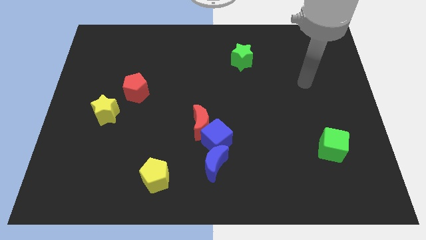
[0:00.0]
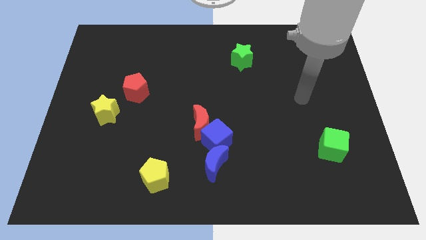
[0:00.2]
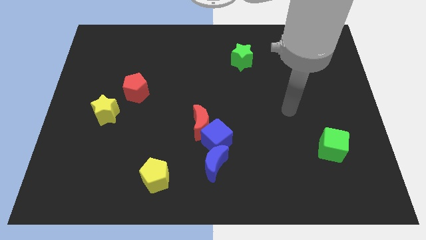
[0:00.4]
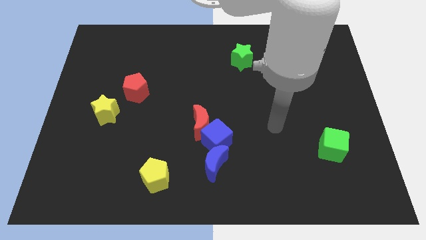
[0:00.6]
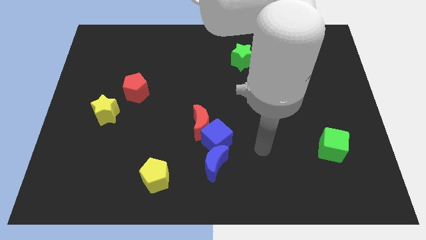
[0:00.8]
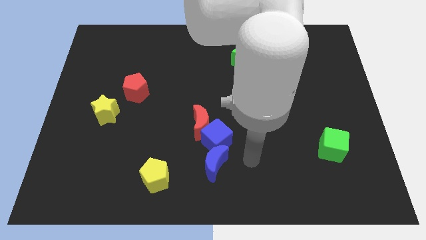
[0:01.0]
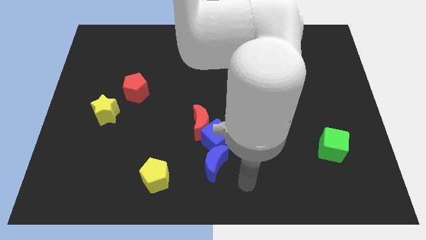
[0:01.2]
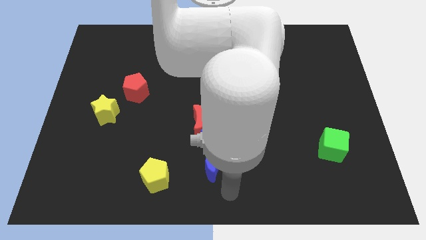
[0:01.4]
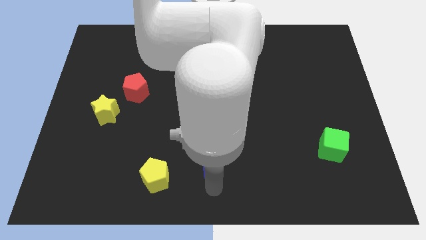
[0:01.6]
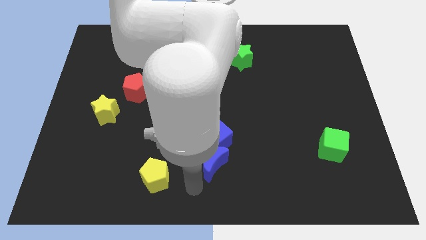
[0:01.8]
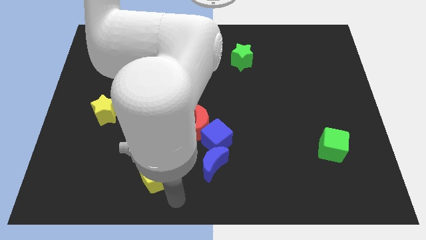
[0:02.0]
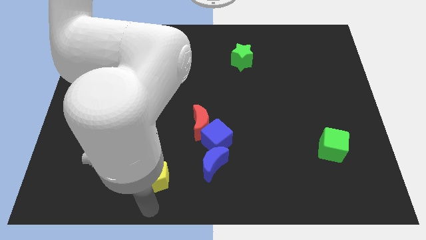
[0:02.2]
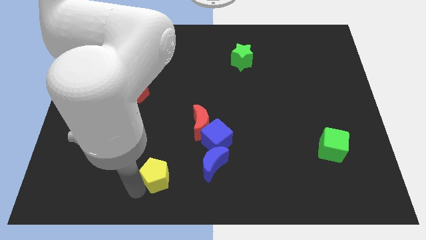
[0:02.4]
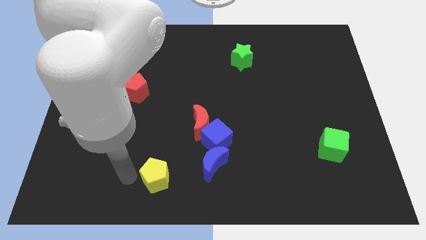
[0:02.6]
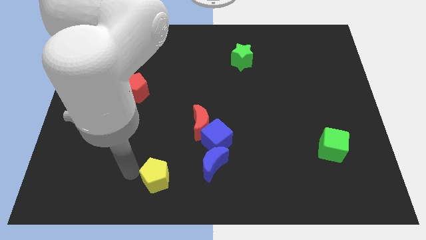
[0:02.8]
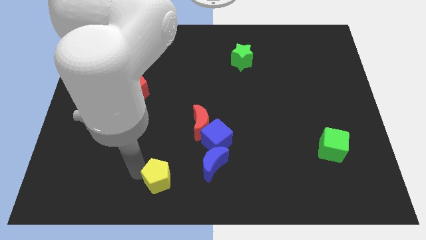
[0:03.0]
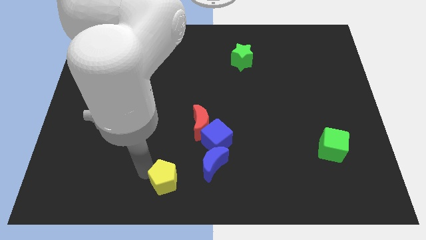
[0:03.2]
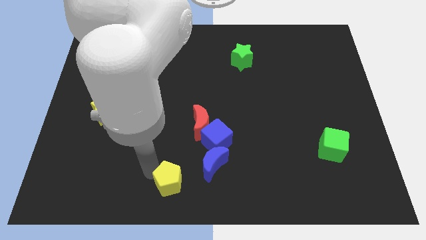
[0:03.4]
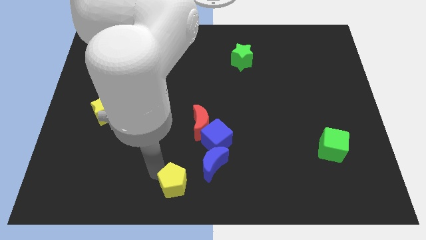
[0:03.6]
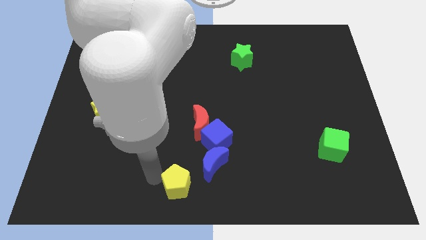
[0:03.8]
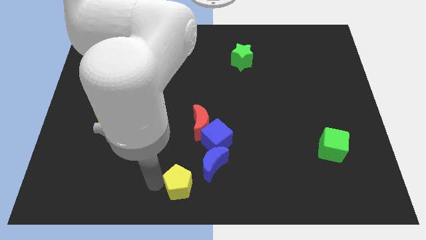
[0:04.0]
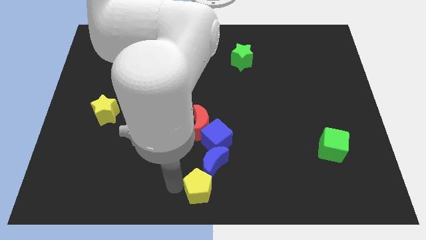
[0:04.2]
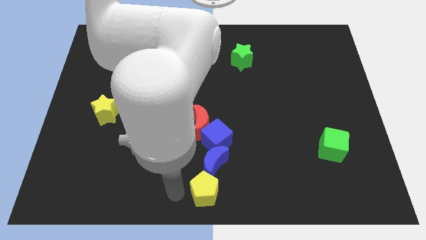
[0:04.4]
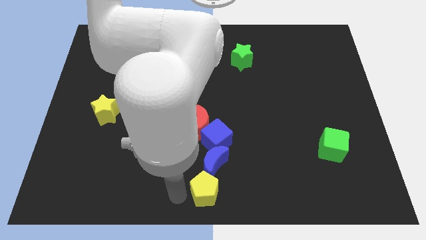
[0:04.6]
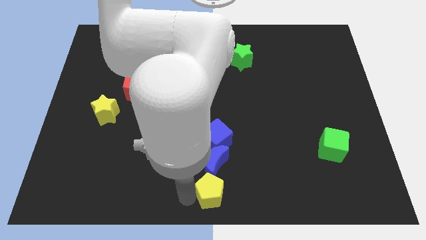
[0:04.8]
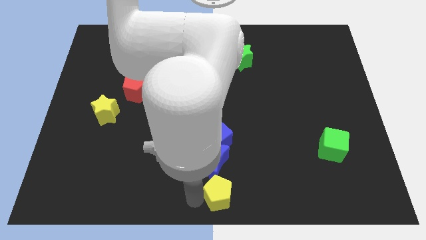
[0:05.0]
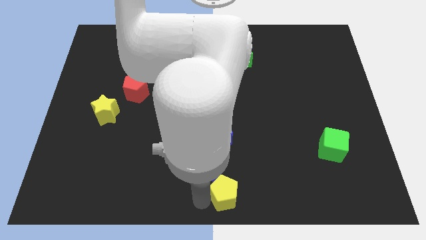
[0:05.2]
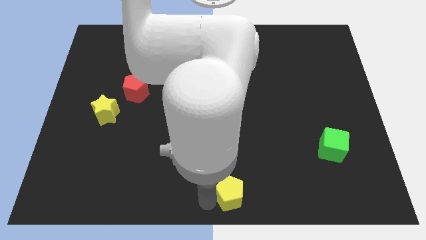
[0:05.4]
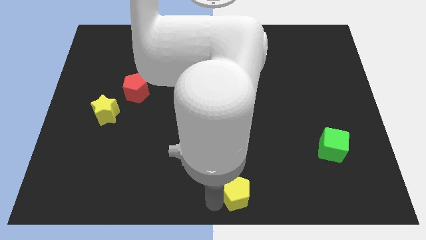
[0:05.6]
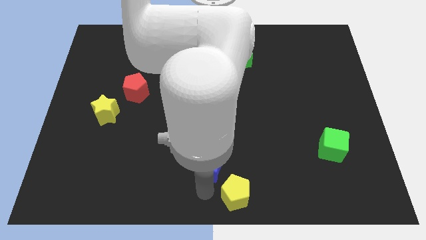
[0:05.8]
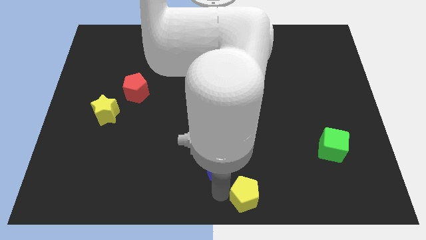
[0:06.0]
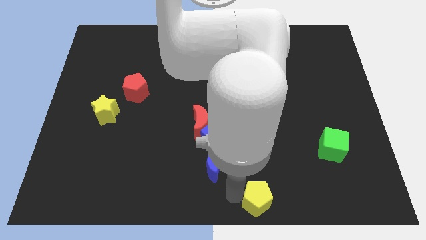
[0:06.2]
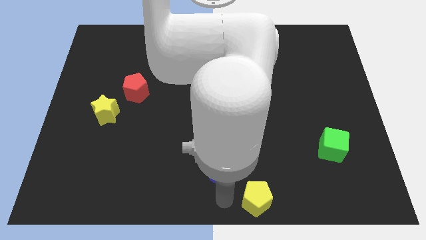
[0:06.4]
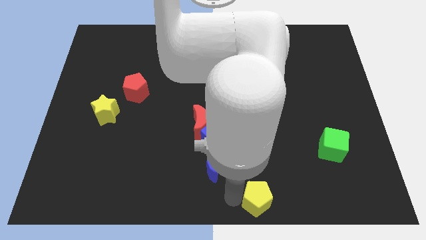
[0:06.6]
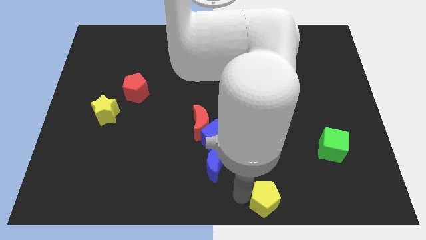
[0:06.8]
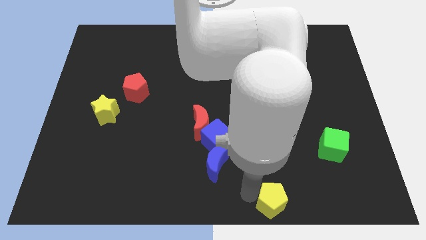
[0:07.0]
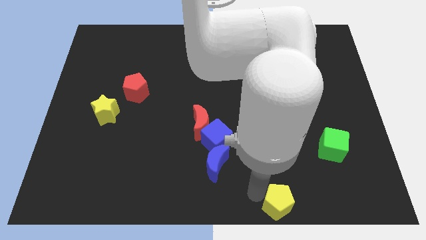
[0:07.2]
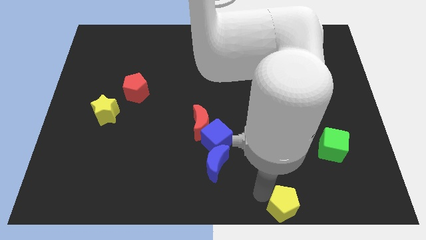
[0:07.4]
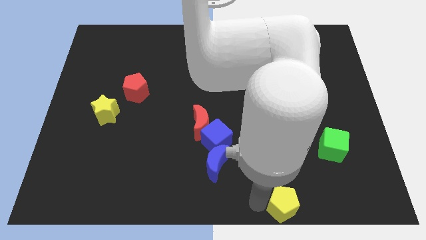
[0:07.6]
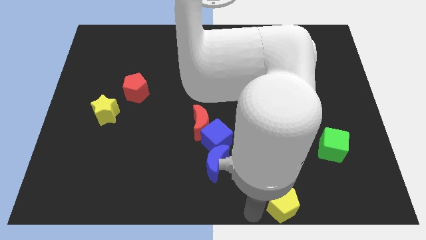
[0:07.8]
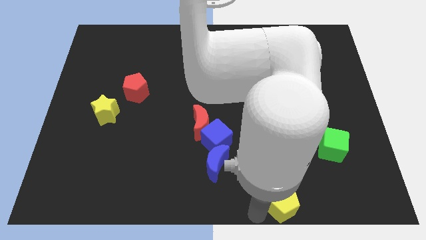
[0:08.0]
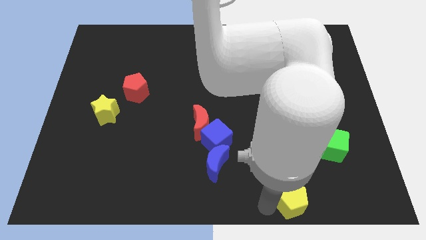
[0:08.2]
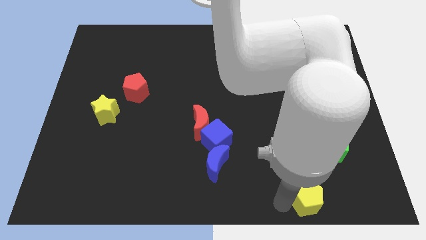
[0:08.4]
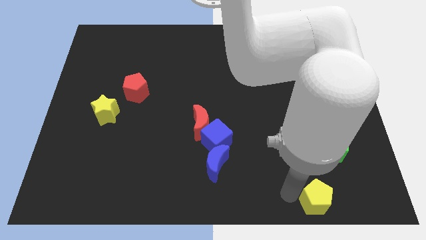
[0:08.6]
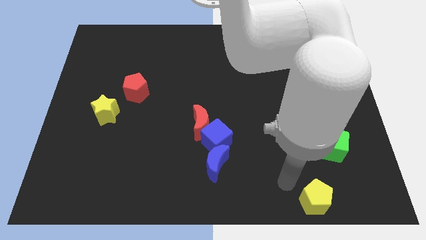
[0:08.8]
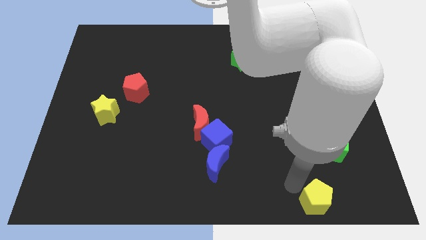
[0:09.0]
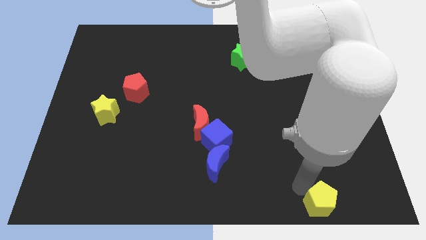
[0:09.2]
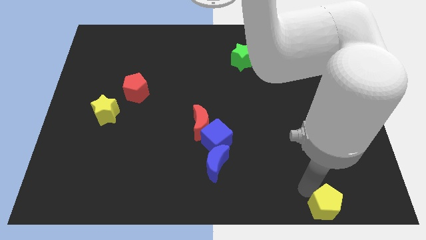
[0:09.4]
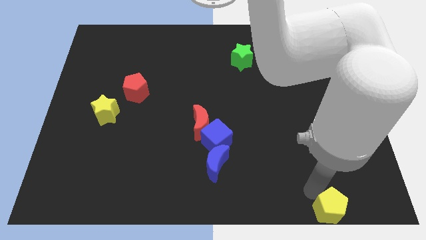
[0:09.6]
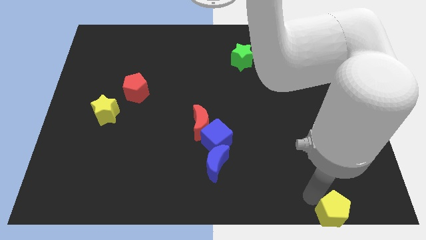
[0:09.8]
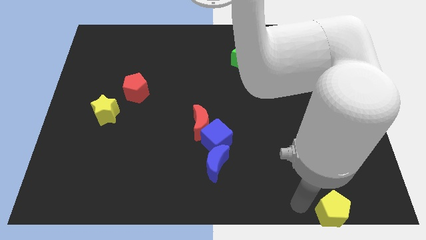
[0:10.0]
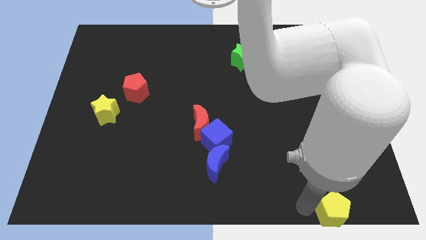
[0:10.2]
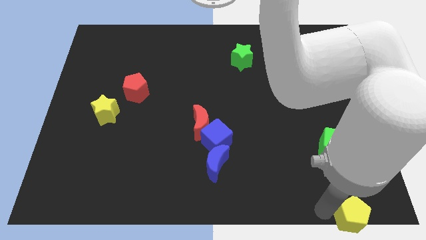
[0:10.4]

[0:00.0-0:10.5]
move the yellow pentagon to the bottom right corner

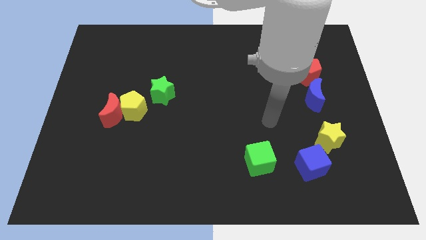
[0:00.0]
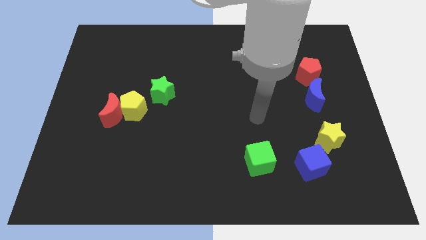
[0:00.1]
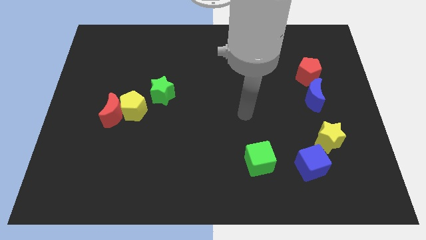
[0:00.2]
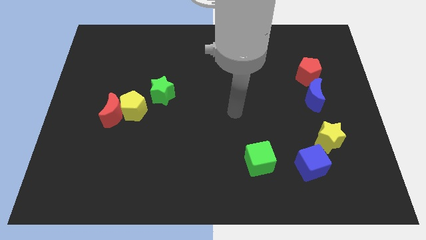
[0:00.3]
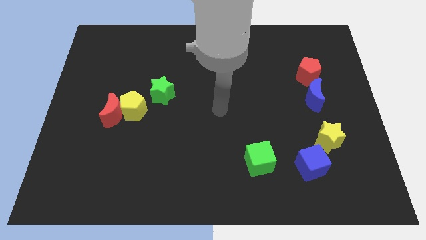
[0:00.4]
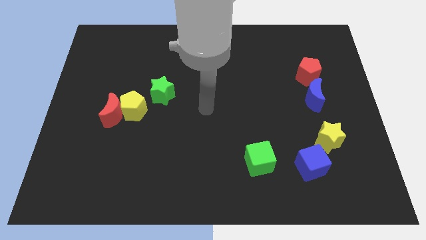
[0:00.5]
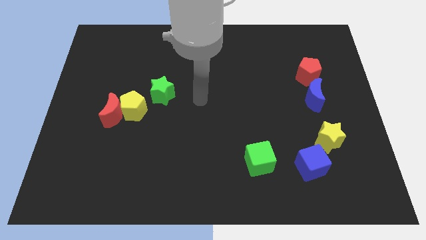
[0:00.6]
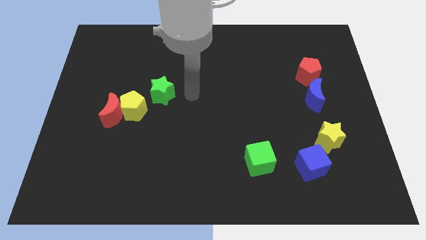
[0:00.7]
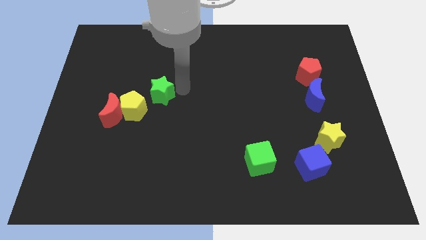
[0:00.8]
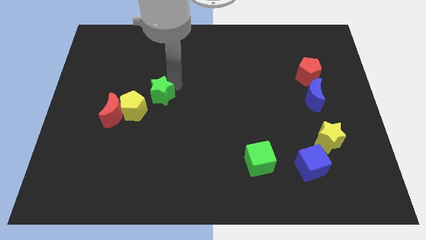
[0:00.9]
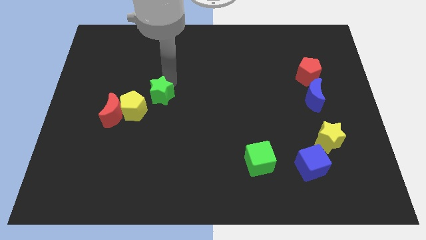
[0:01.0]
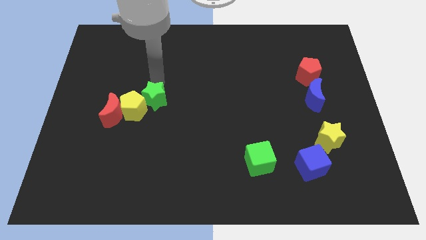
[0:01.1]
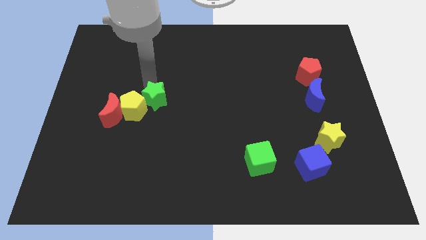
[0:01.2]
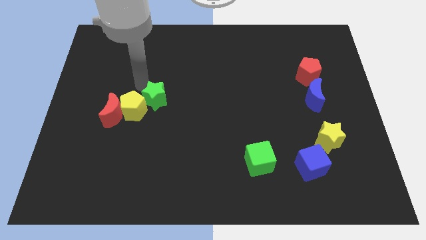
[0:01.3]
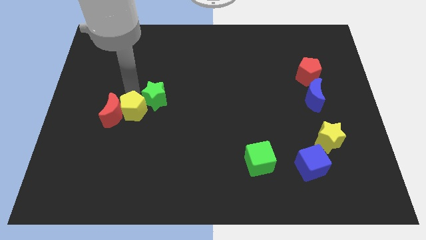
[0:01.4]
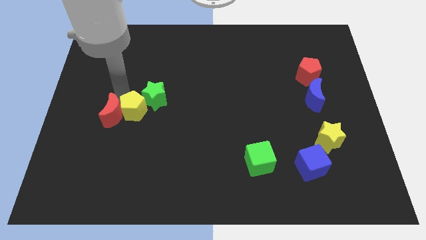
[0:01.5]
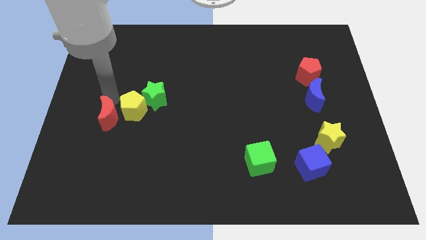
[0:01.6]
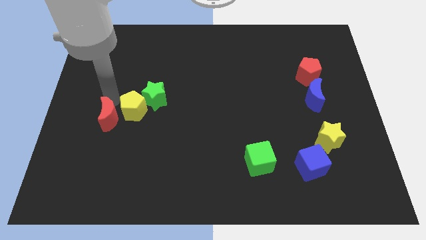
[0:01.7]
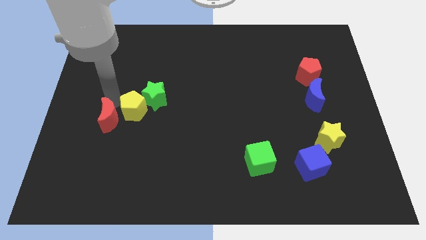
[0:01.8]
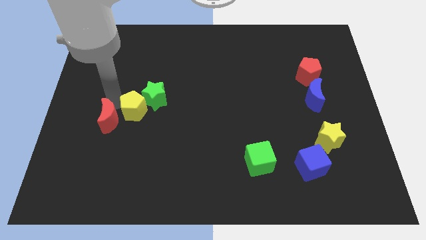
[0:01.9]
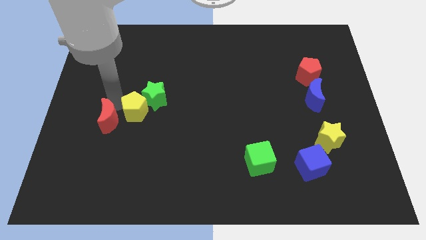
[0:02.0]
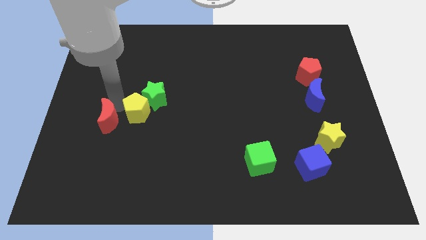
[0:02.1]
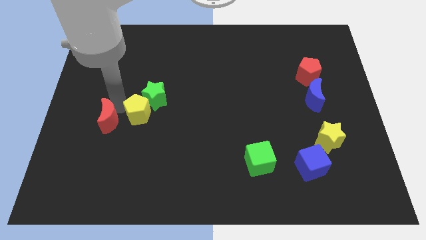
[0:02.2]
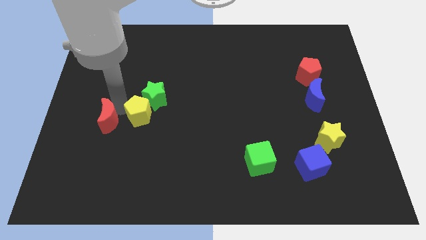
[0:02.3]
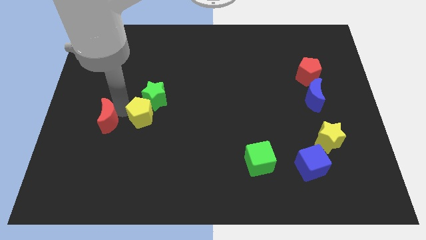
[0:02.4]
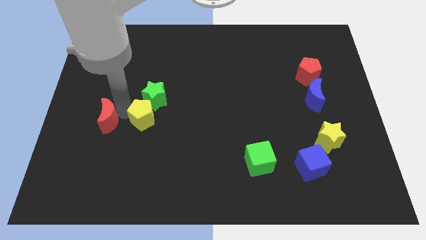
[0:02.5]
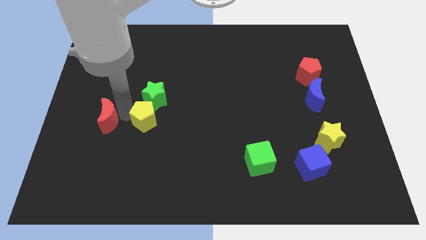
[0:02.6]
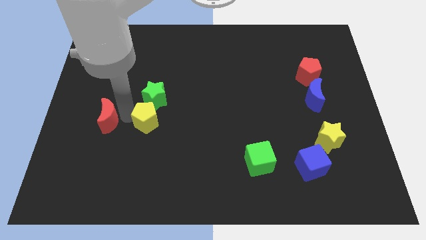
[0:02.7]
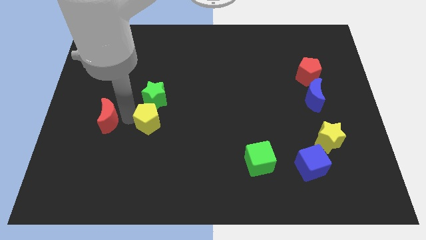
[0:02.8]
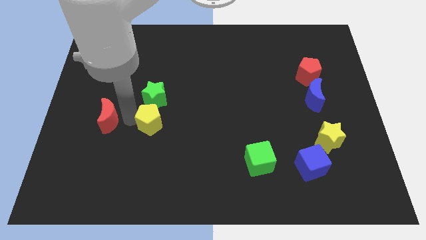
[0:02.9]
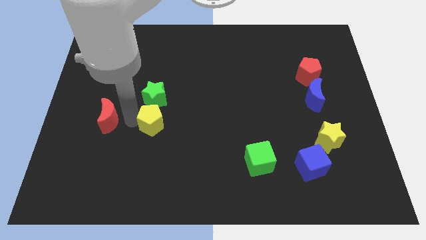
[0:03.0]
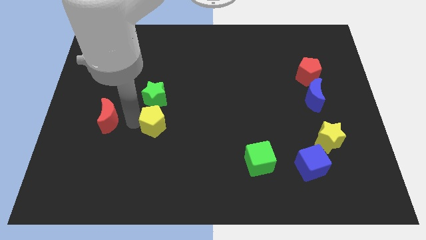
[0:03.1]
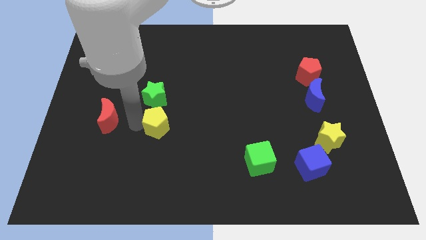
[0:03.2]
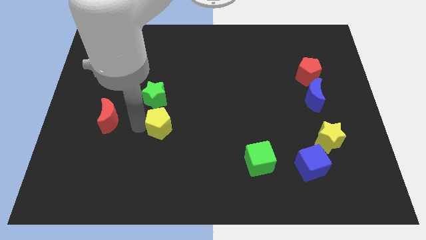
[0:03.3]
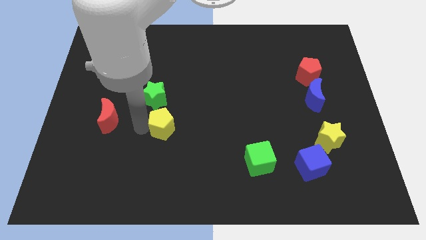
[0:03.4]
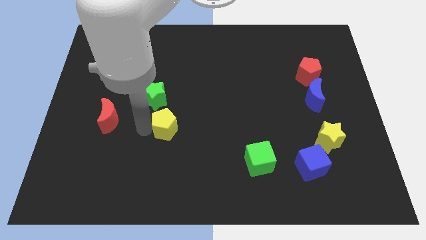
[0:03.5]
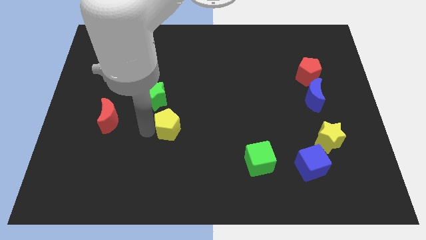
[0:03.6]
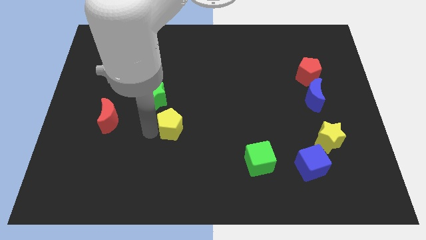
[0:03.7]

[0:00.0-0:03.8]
push the yellow pentagon to the middle
